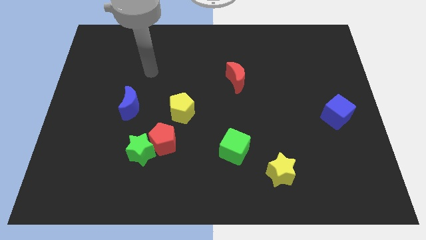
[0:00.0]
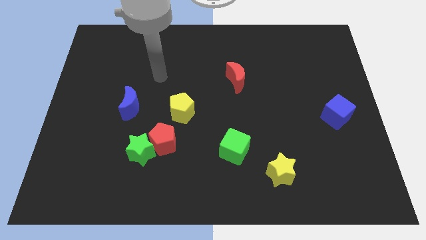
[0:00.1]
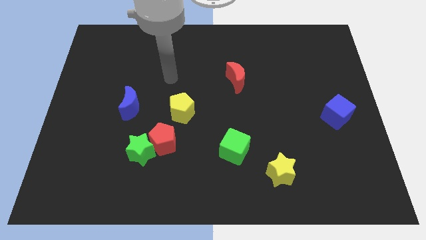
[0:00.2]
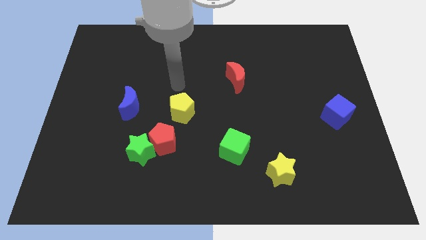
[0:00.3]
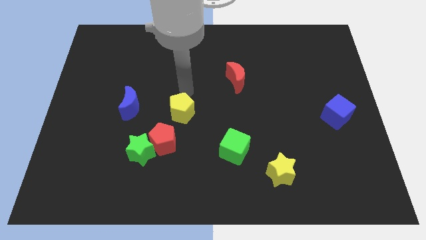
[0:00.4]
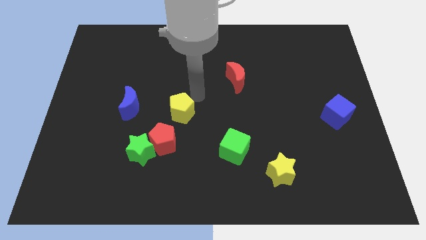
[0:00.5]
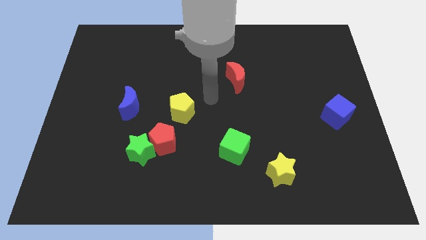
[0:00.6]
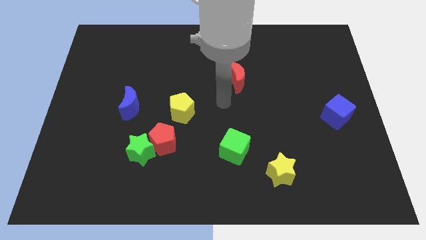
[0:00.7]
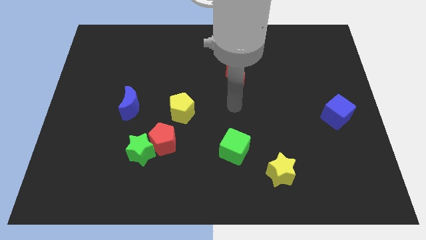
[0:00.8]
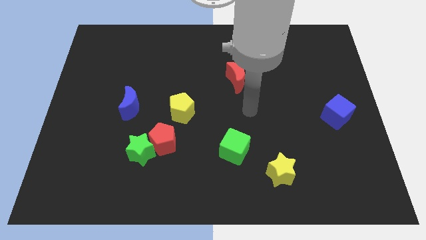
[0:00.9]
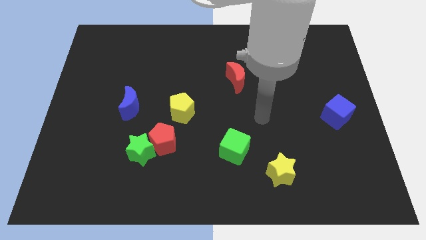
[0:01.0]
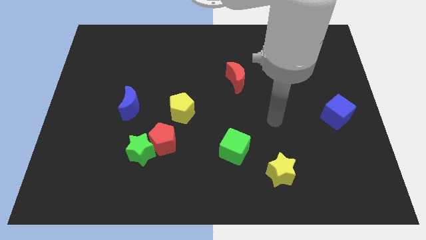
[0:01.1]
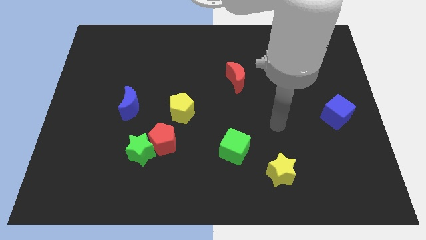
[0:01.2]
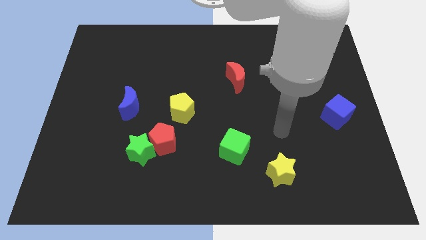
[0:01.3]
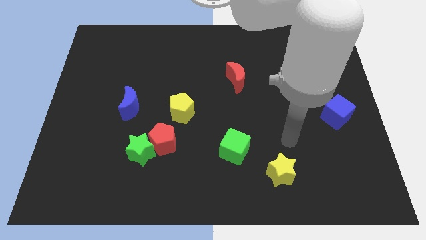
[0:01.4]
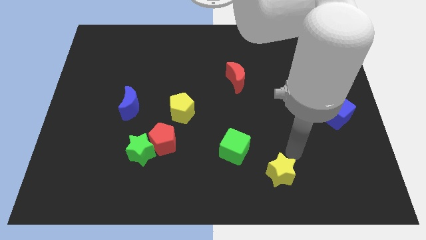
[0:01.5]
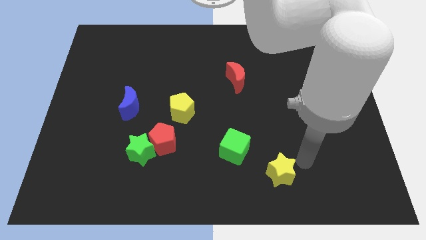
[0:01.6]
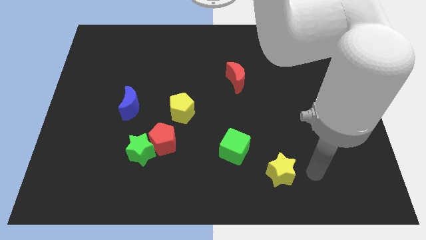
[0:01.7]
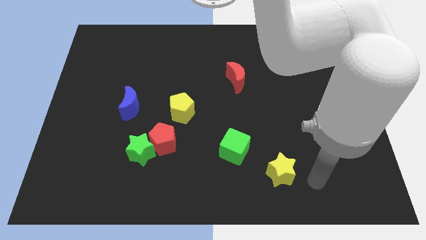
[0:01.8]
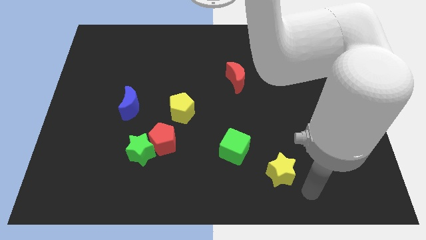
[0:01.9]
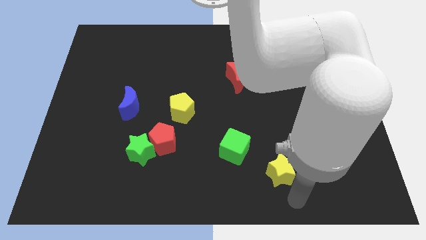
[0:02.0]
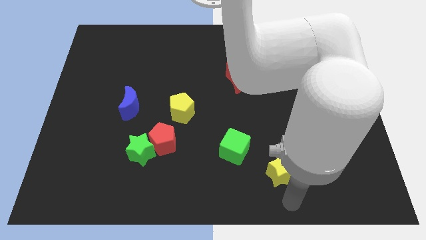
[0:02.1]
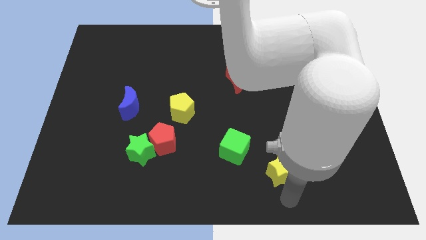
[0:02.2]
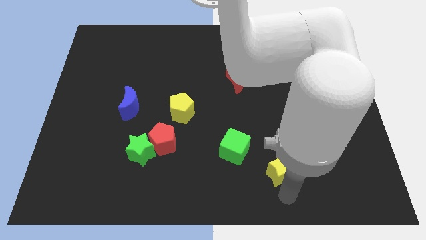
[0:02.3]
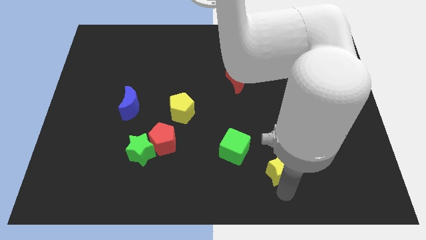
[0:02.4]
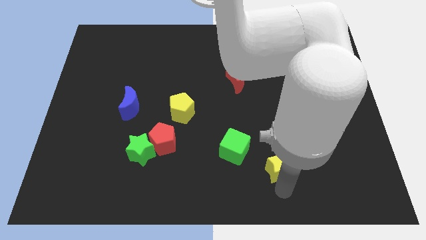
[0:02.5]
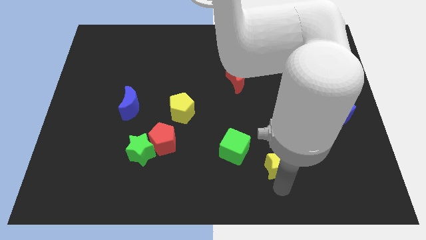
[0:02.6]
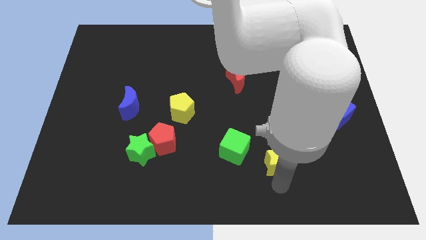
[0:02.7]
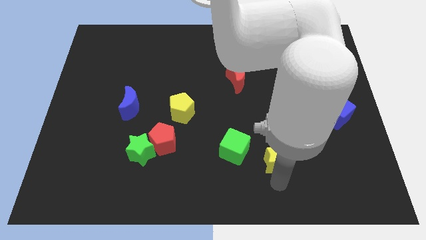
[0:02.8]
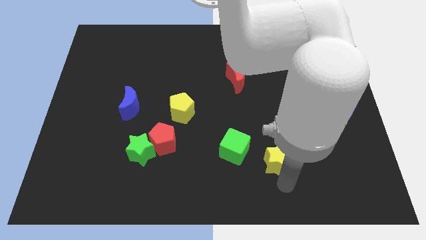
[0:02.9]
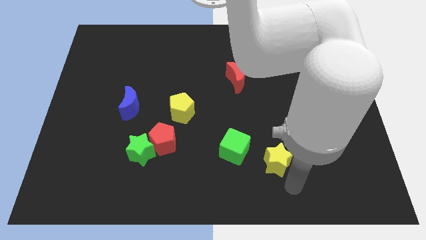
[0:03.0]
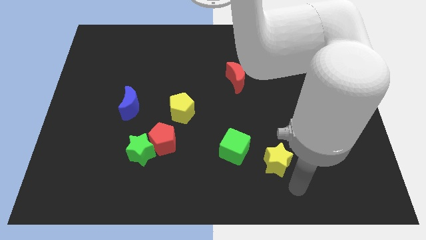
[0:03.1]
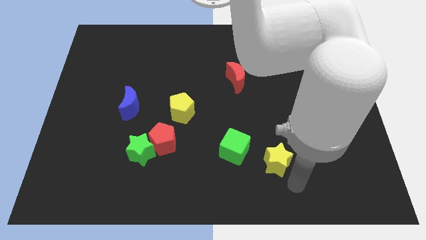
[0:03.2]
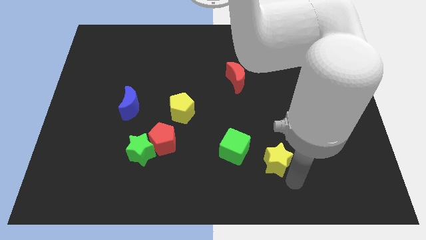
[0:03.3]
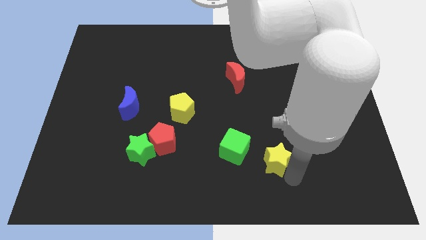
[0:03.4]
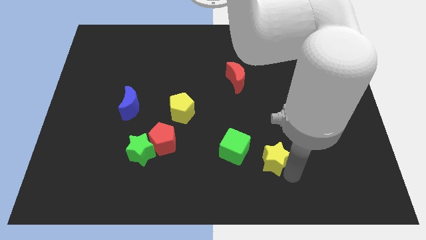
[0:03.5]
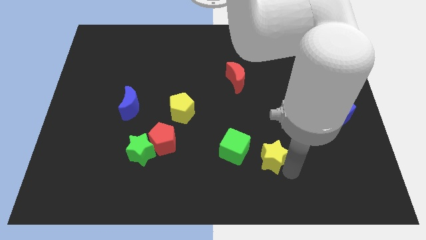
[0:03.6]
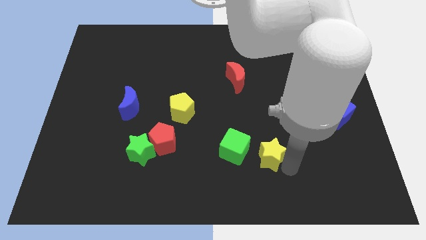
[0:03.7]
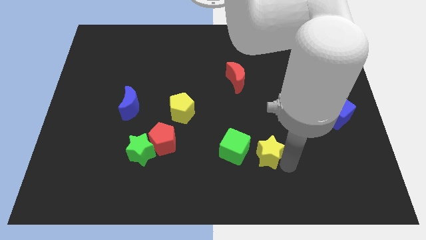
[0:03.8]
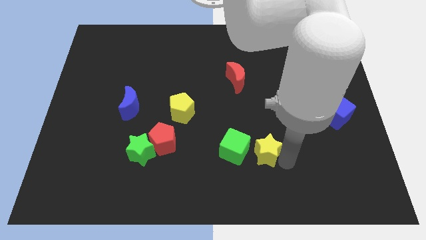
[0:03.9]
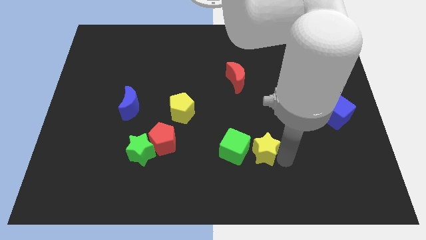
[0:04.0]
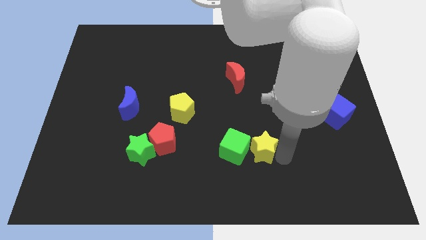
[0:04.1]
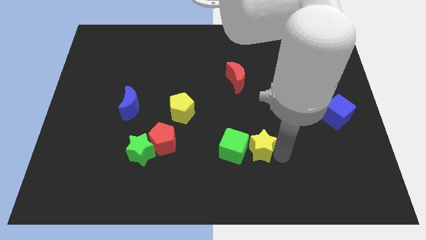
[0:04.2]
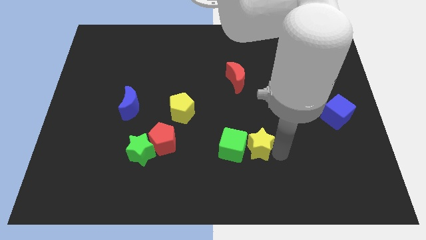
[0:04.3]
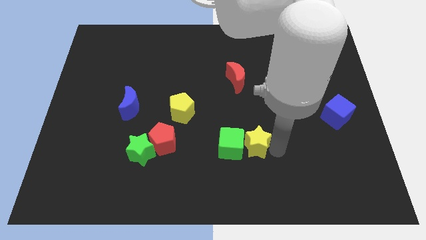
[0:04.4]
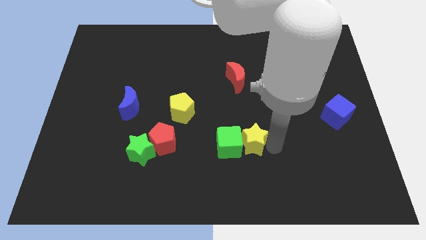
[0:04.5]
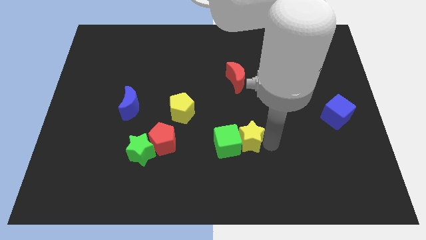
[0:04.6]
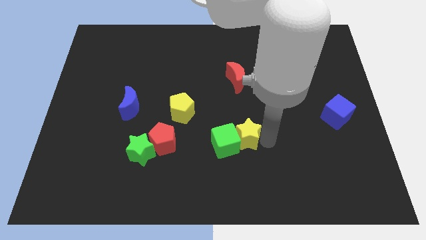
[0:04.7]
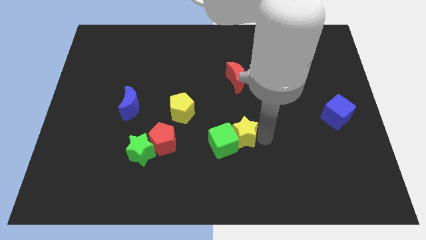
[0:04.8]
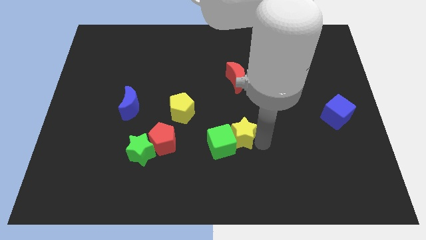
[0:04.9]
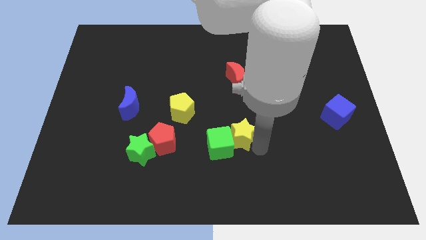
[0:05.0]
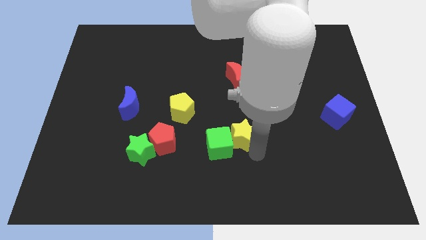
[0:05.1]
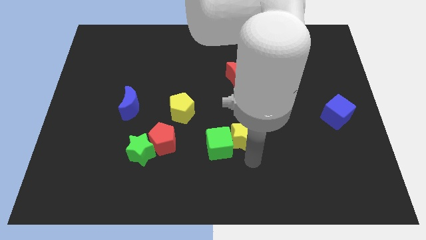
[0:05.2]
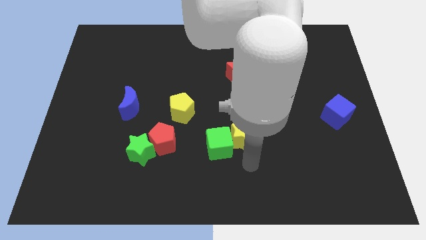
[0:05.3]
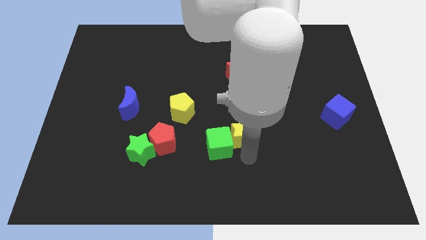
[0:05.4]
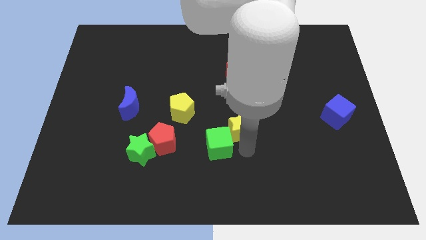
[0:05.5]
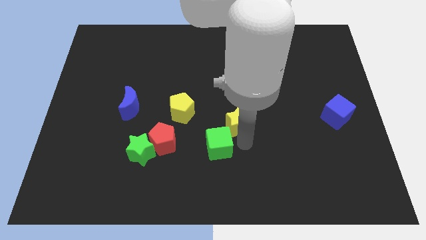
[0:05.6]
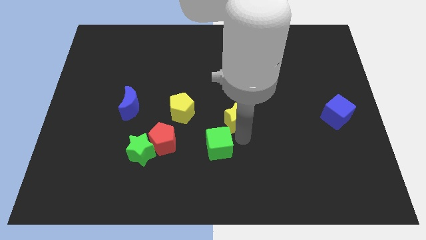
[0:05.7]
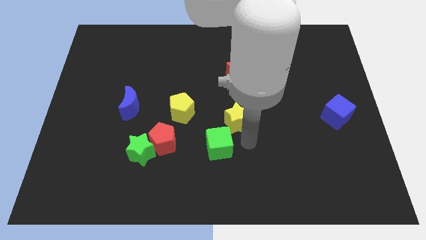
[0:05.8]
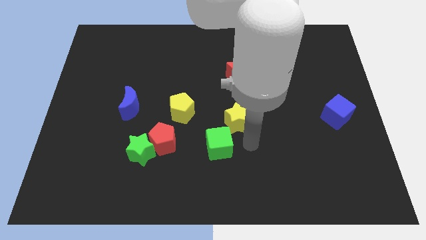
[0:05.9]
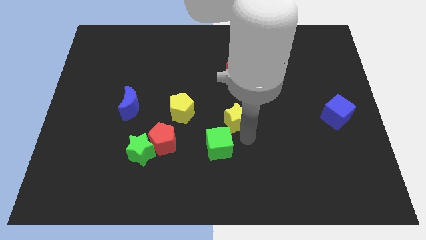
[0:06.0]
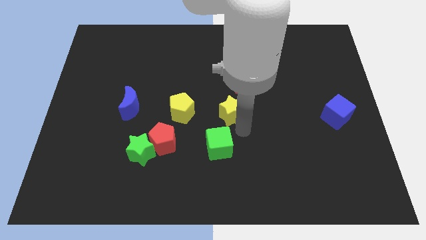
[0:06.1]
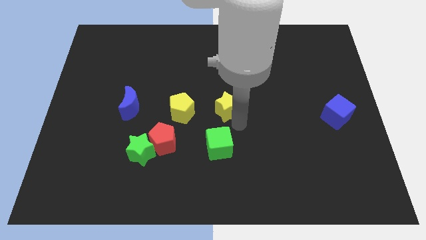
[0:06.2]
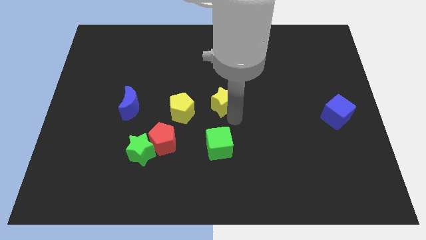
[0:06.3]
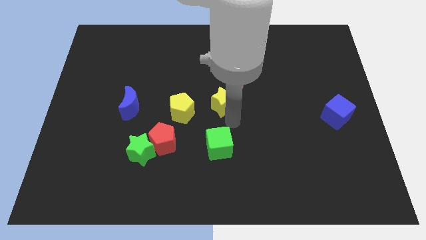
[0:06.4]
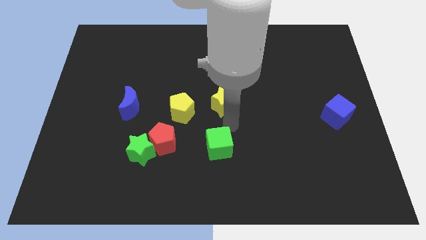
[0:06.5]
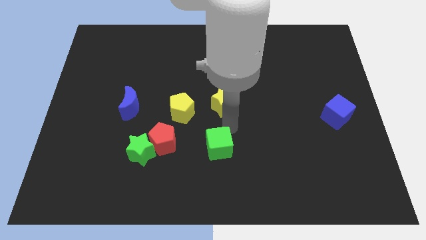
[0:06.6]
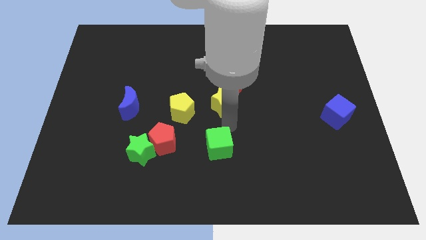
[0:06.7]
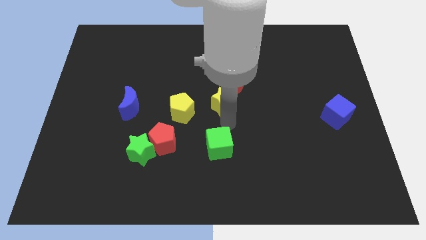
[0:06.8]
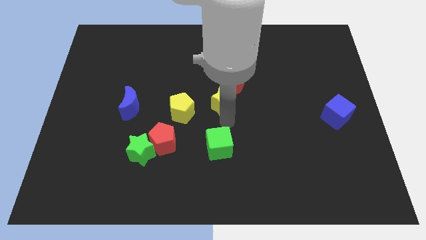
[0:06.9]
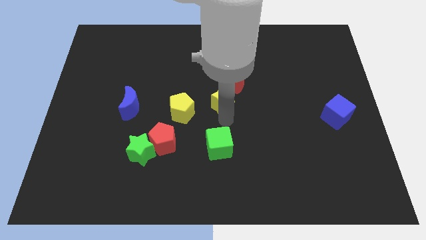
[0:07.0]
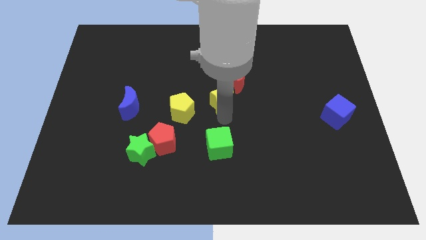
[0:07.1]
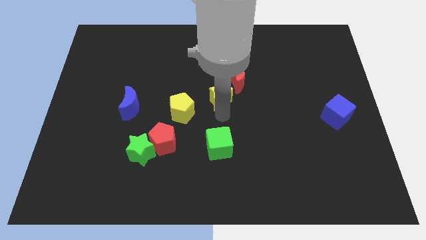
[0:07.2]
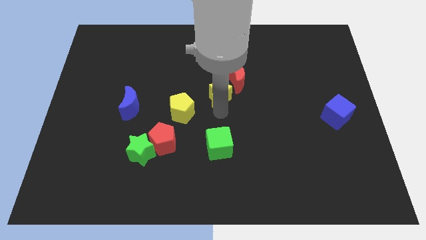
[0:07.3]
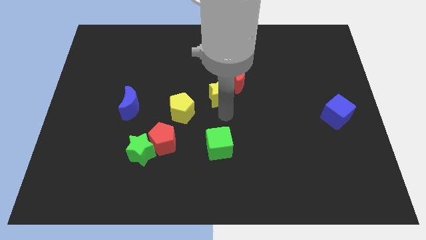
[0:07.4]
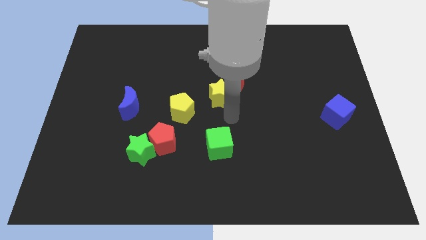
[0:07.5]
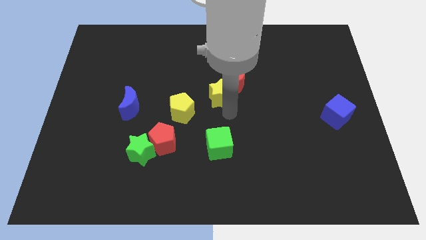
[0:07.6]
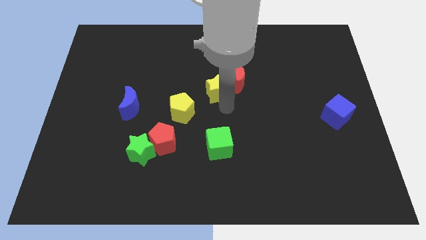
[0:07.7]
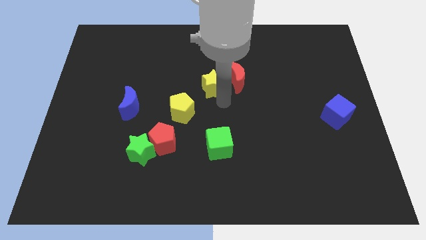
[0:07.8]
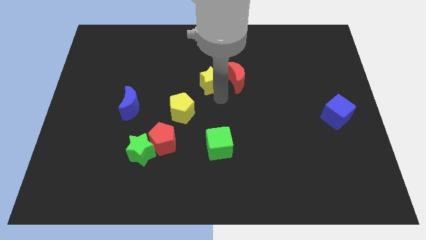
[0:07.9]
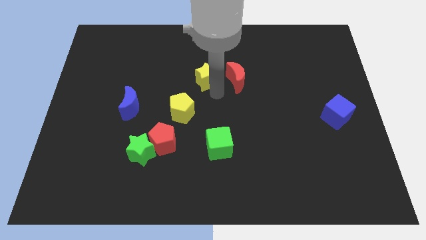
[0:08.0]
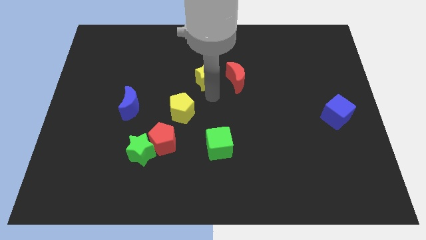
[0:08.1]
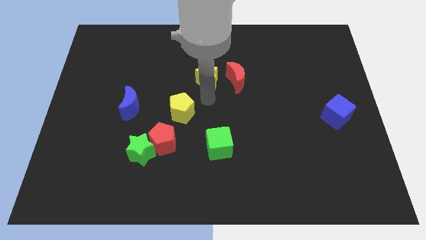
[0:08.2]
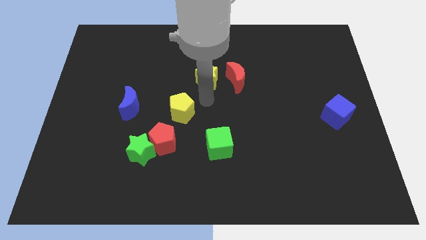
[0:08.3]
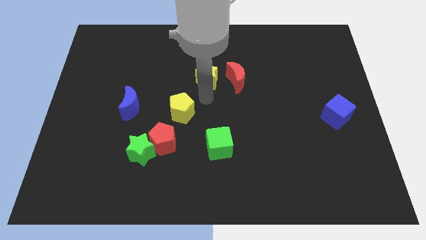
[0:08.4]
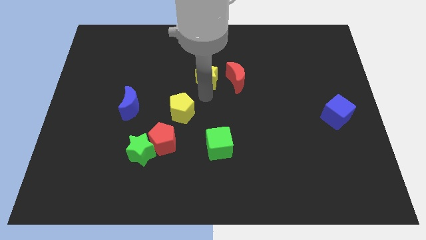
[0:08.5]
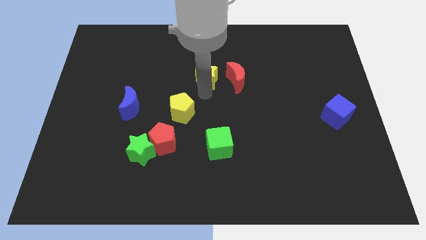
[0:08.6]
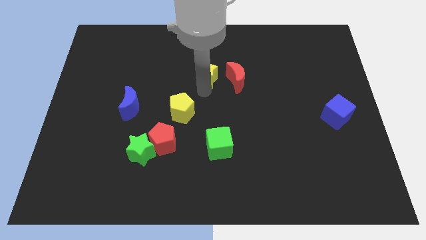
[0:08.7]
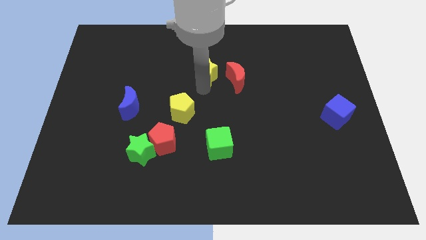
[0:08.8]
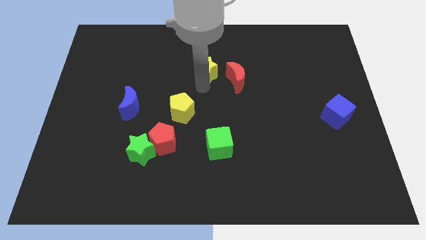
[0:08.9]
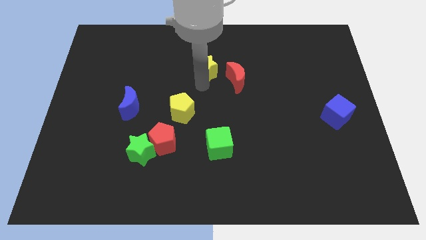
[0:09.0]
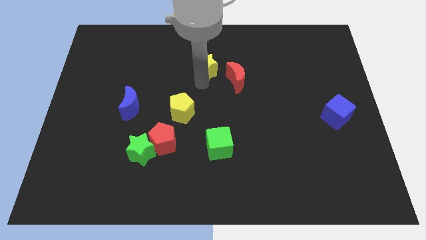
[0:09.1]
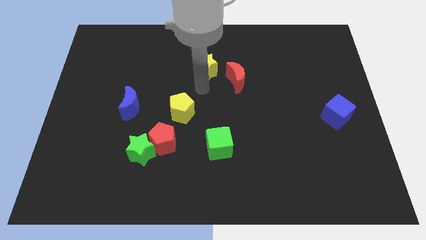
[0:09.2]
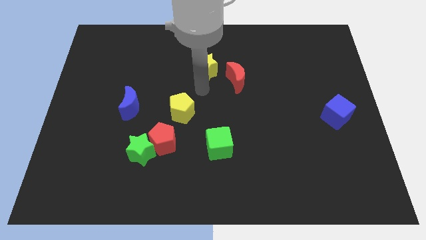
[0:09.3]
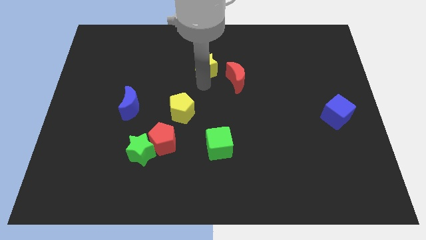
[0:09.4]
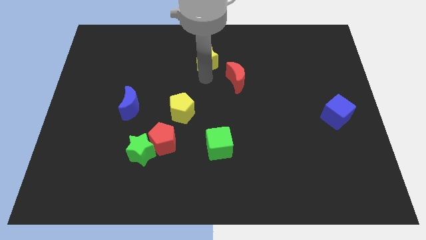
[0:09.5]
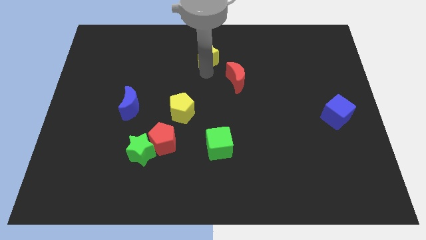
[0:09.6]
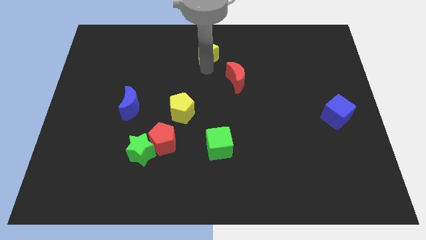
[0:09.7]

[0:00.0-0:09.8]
put the yellow star to the top
